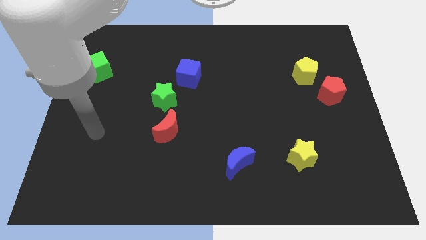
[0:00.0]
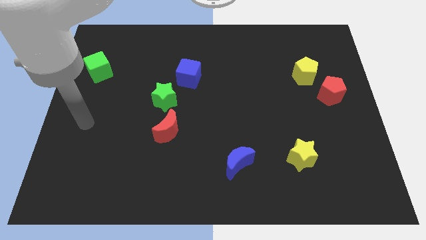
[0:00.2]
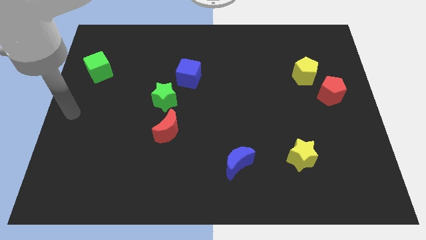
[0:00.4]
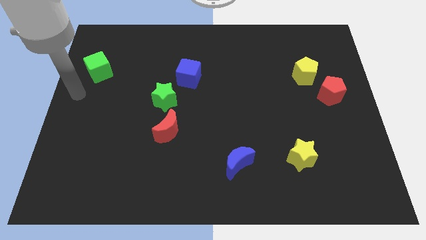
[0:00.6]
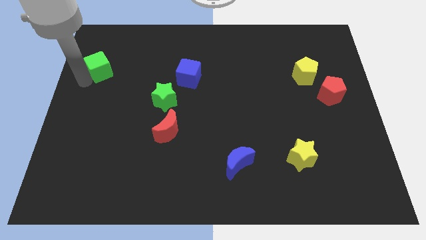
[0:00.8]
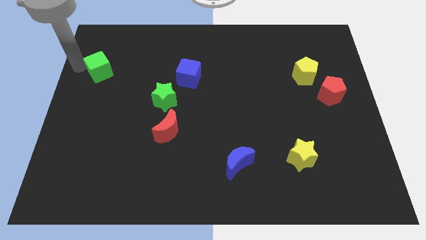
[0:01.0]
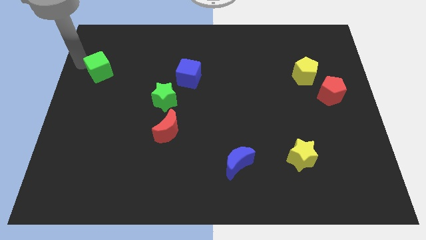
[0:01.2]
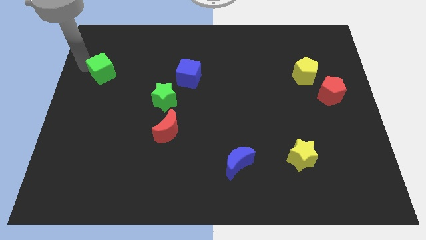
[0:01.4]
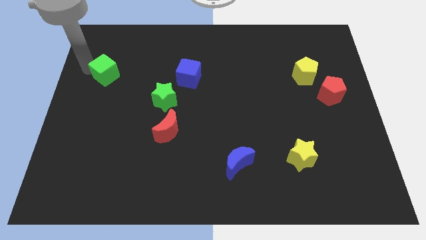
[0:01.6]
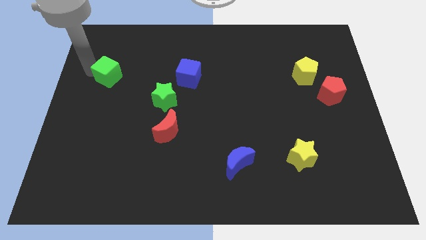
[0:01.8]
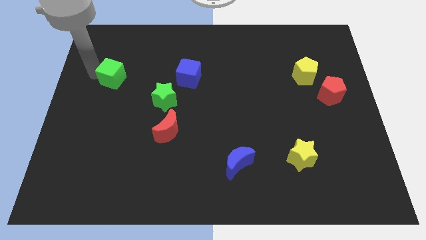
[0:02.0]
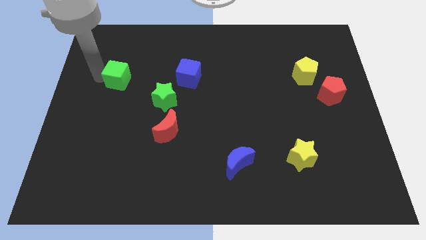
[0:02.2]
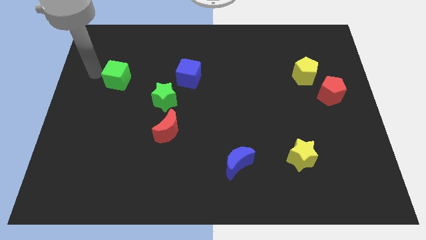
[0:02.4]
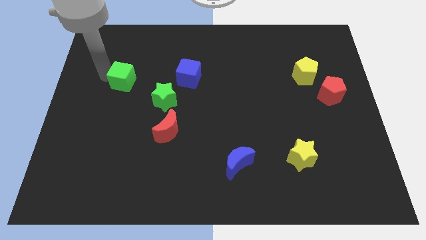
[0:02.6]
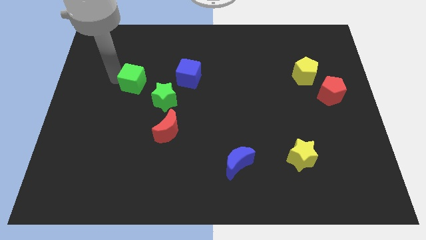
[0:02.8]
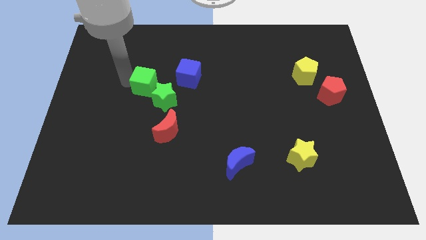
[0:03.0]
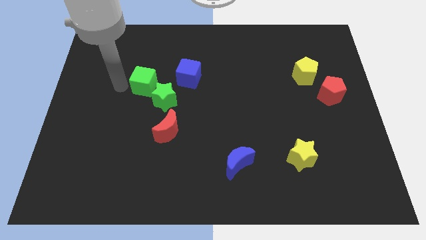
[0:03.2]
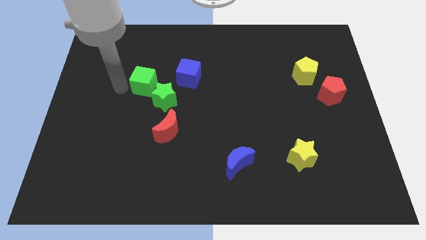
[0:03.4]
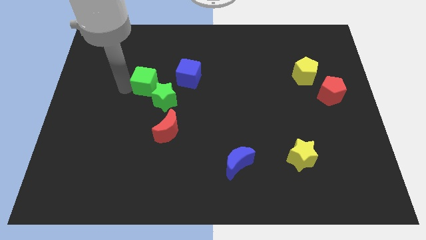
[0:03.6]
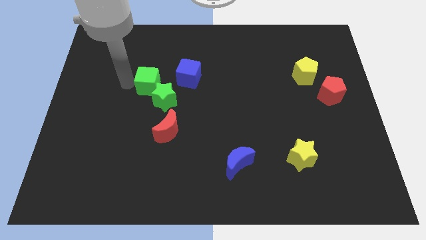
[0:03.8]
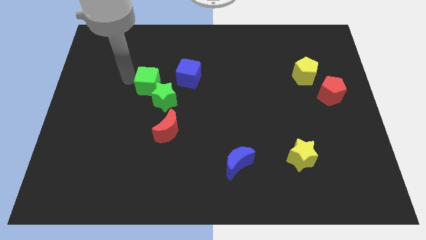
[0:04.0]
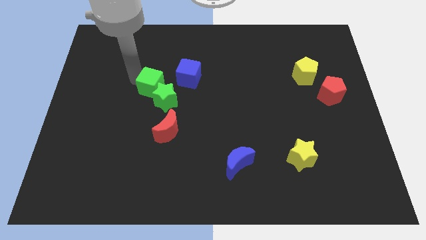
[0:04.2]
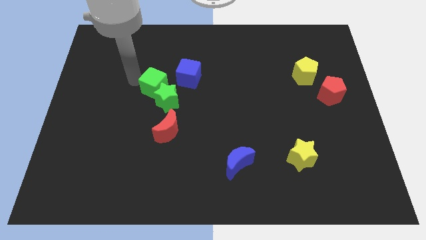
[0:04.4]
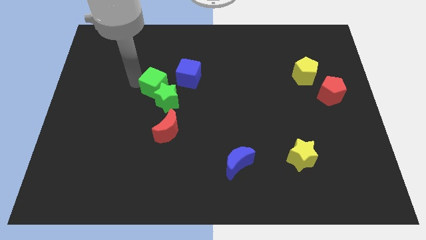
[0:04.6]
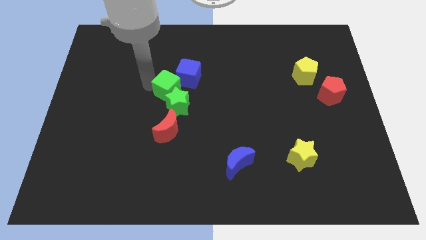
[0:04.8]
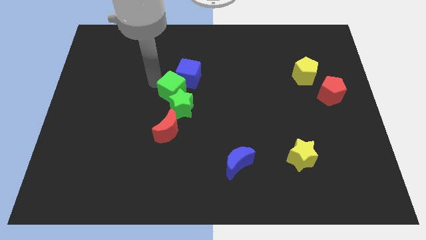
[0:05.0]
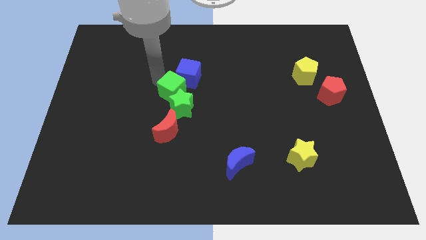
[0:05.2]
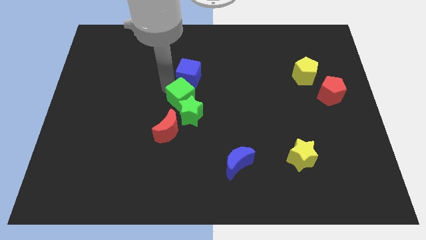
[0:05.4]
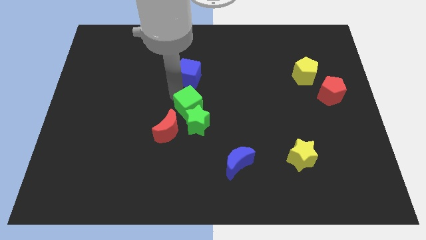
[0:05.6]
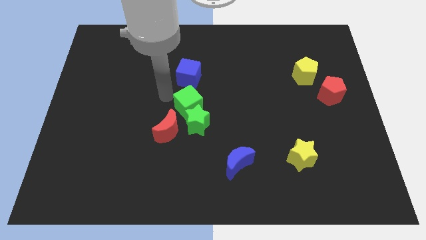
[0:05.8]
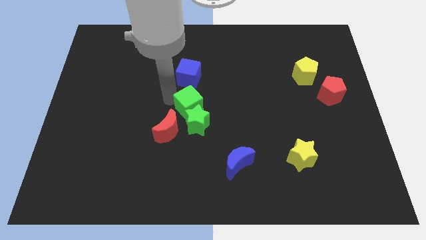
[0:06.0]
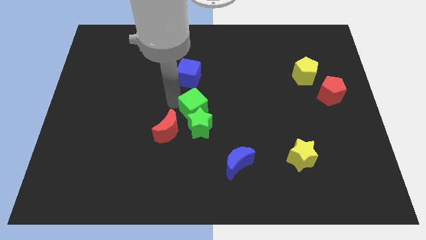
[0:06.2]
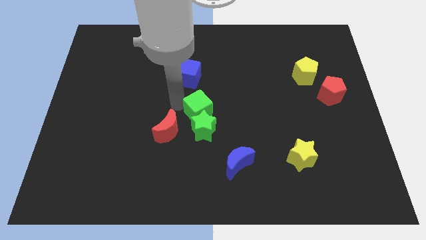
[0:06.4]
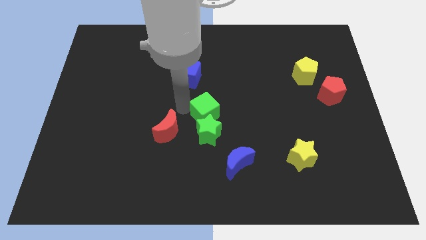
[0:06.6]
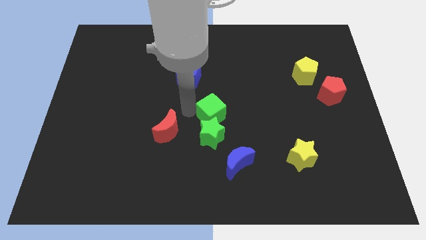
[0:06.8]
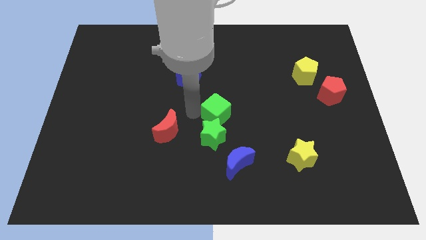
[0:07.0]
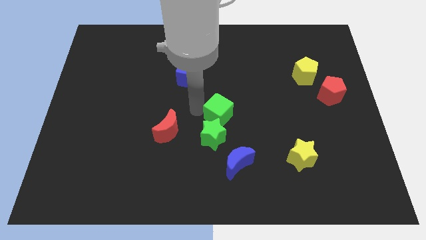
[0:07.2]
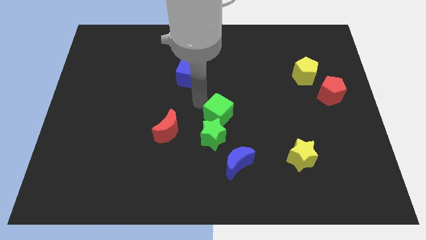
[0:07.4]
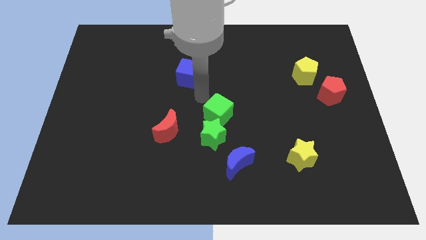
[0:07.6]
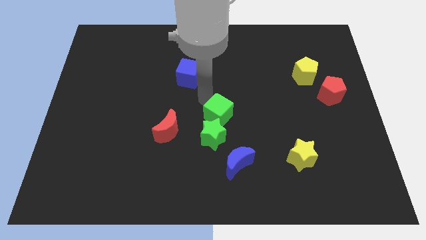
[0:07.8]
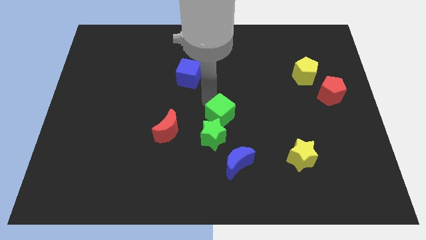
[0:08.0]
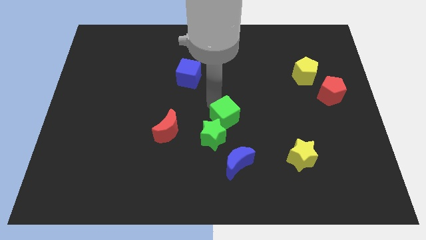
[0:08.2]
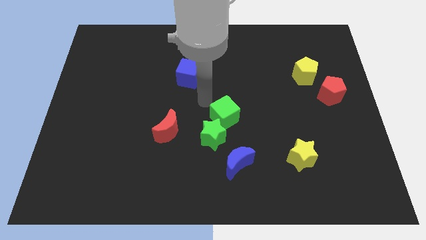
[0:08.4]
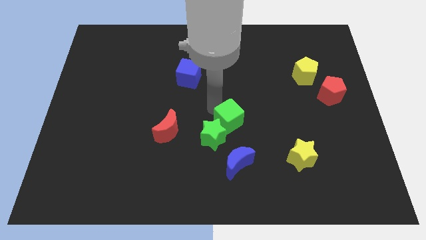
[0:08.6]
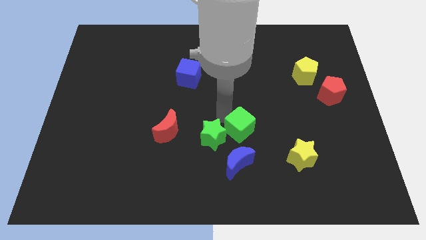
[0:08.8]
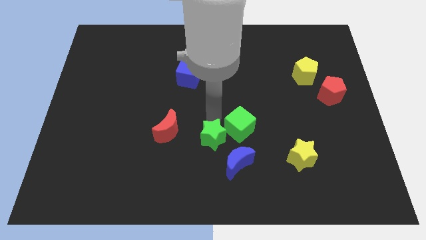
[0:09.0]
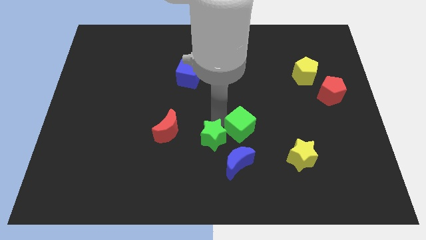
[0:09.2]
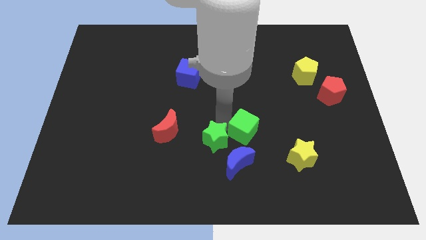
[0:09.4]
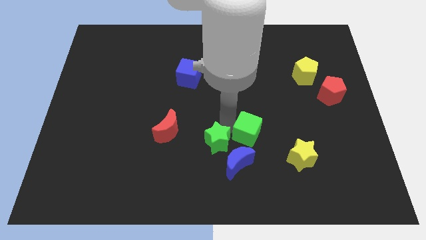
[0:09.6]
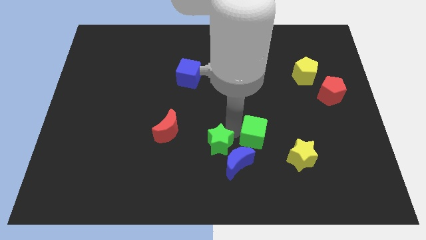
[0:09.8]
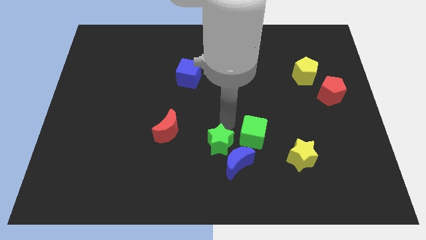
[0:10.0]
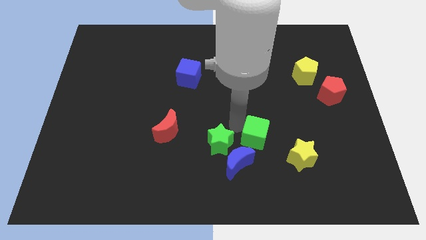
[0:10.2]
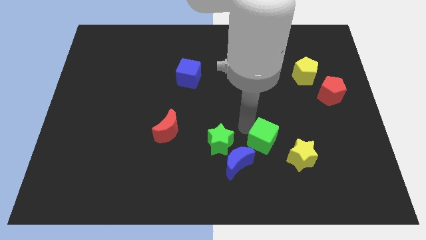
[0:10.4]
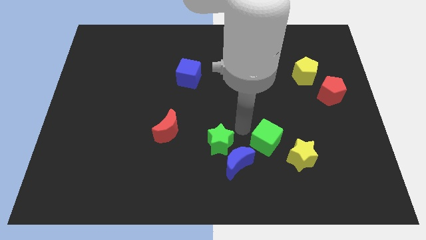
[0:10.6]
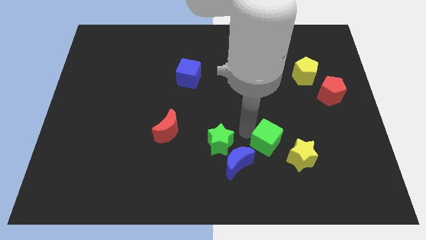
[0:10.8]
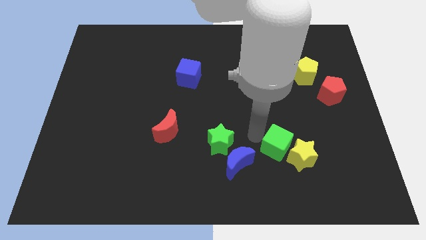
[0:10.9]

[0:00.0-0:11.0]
move the green cube next to the yellow star

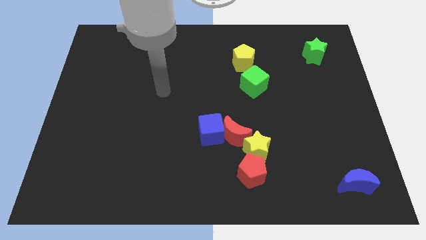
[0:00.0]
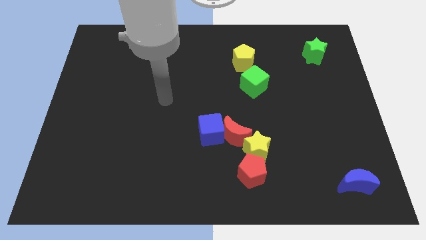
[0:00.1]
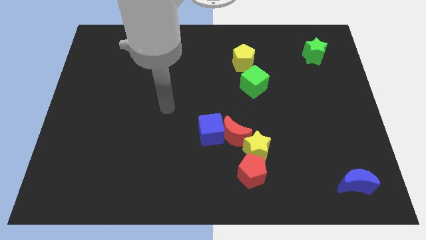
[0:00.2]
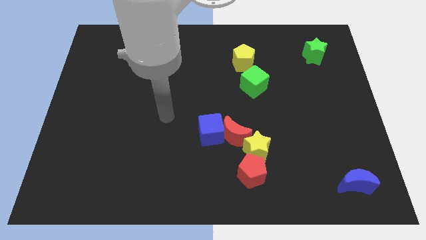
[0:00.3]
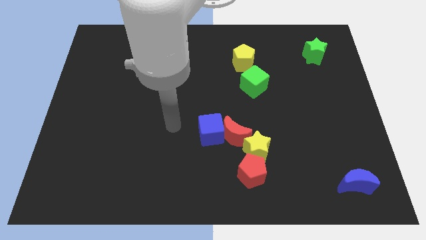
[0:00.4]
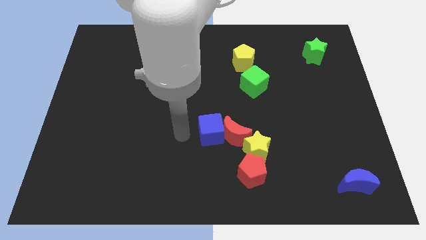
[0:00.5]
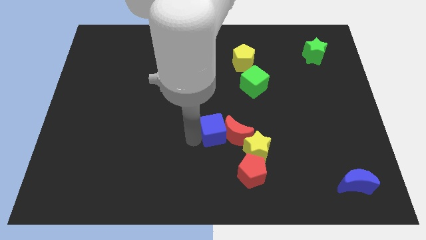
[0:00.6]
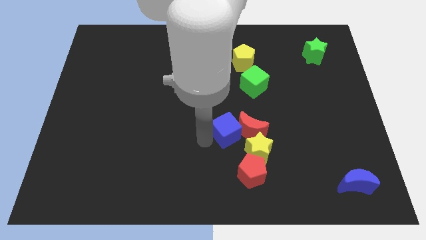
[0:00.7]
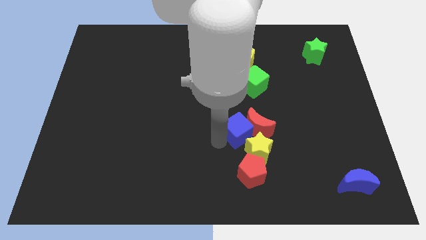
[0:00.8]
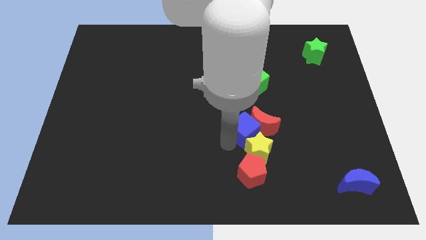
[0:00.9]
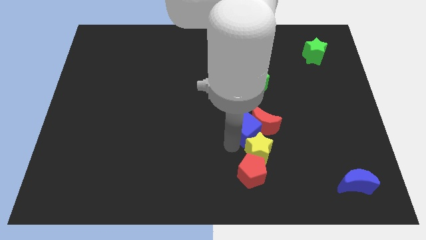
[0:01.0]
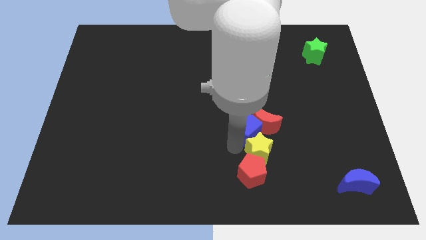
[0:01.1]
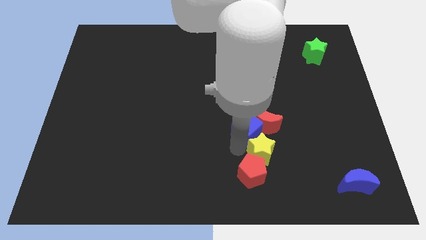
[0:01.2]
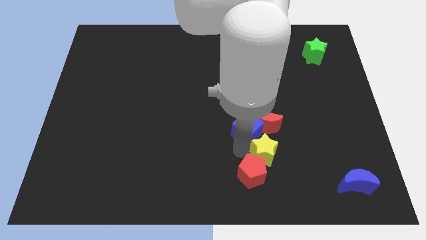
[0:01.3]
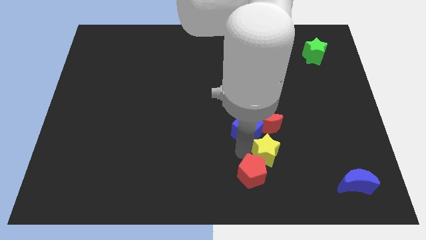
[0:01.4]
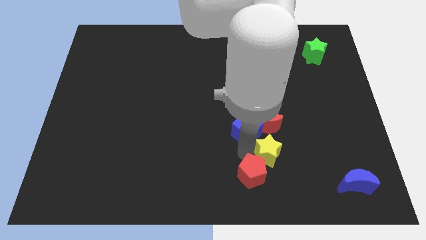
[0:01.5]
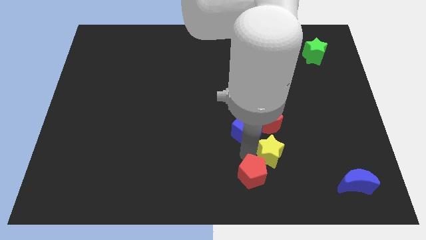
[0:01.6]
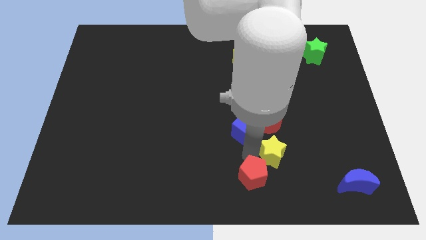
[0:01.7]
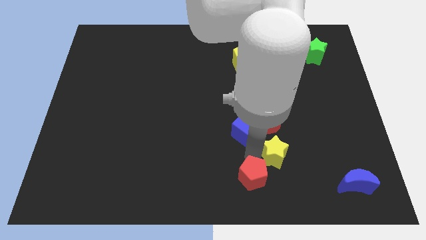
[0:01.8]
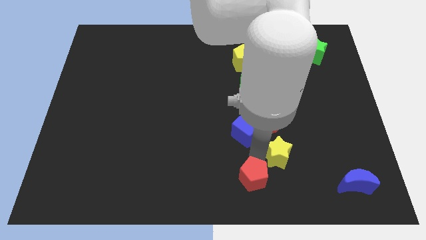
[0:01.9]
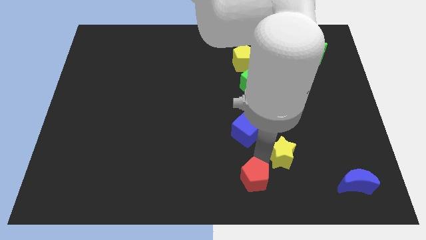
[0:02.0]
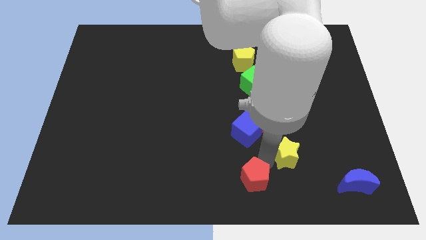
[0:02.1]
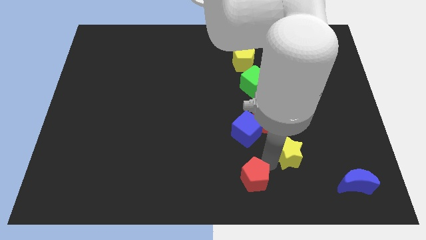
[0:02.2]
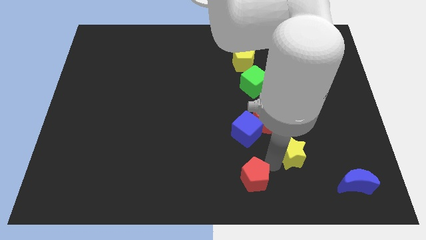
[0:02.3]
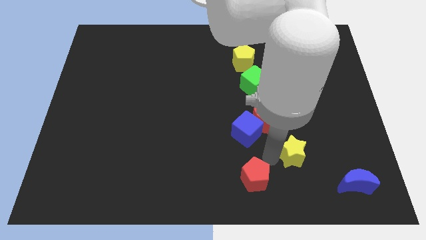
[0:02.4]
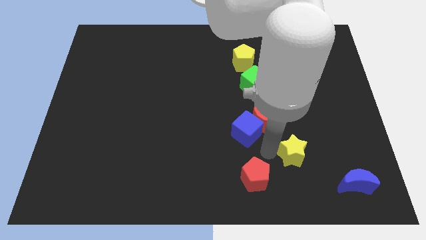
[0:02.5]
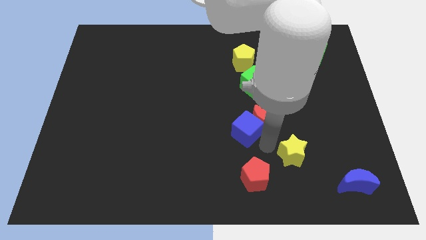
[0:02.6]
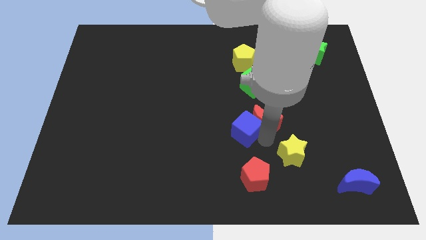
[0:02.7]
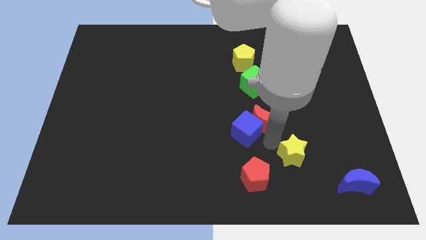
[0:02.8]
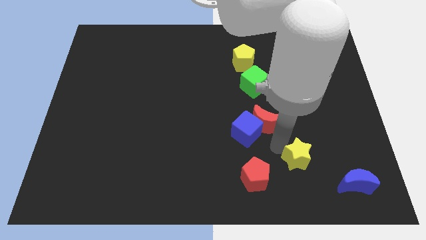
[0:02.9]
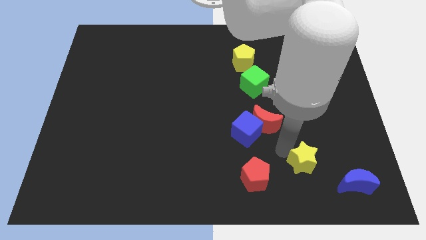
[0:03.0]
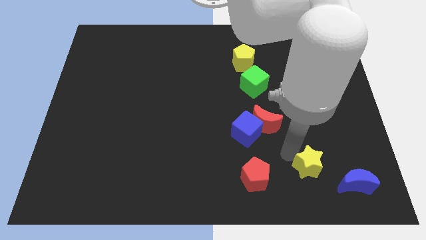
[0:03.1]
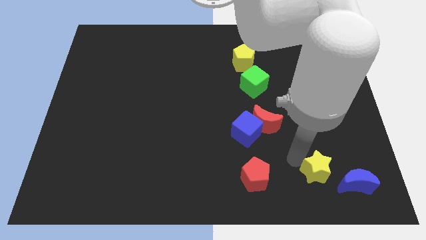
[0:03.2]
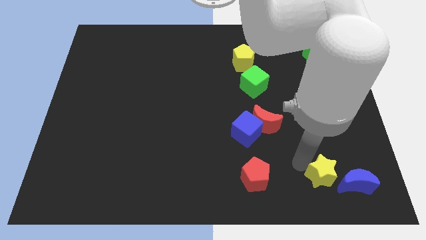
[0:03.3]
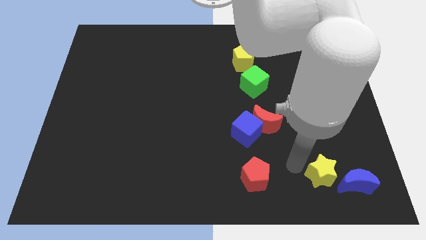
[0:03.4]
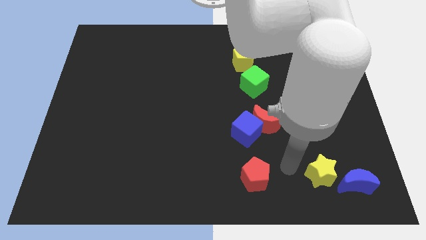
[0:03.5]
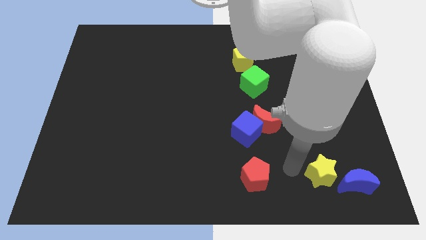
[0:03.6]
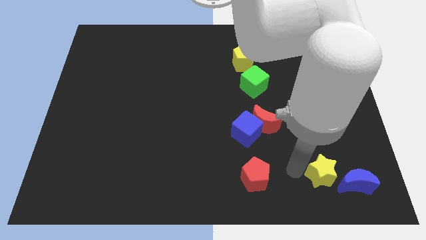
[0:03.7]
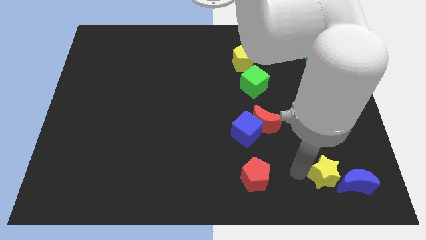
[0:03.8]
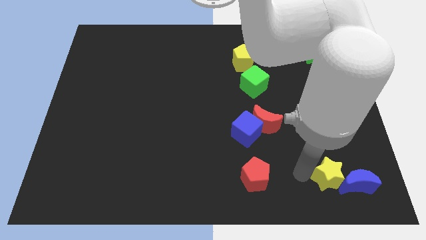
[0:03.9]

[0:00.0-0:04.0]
push the yellow star close to the blue moon
